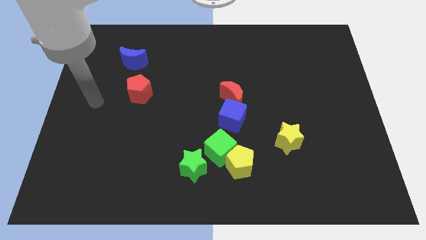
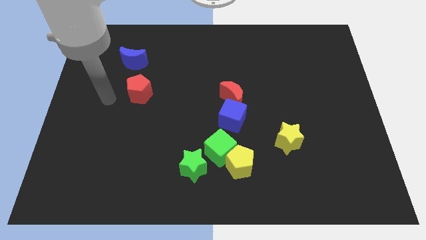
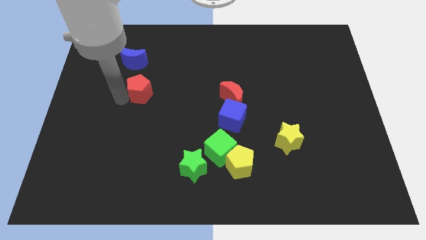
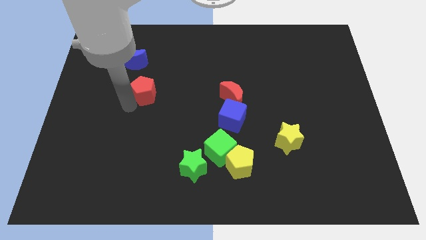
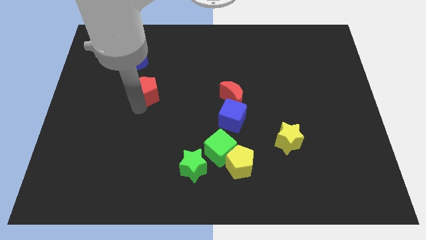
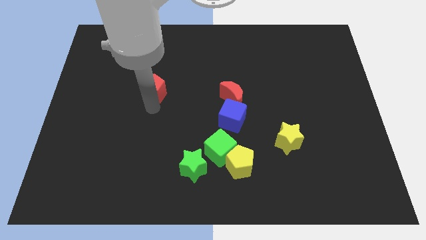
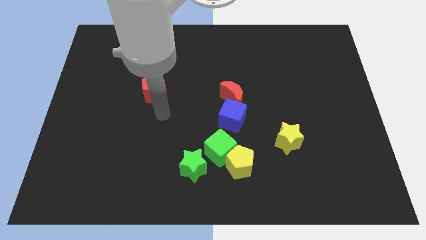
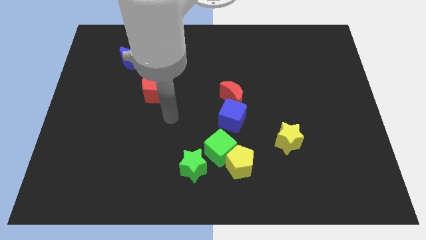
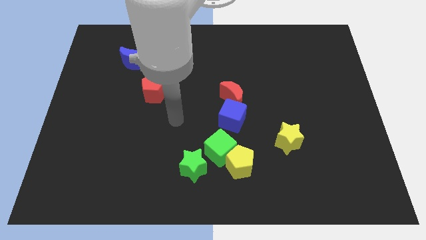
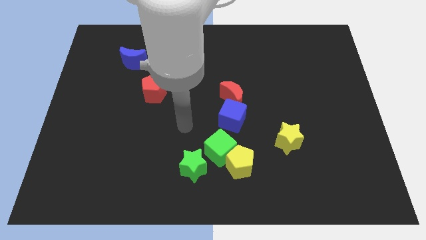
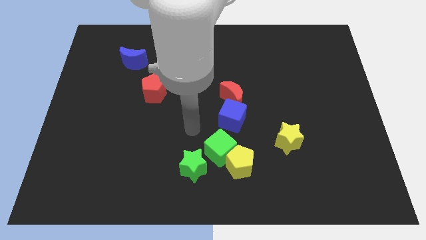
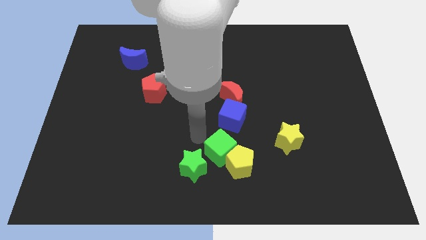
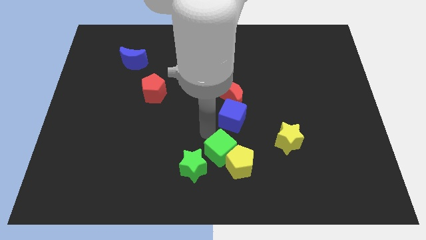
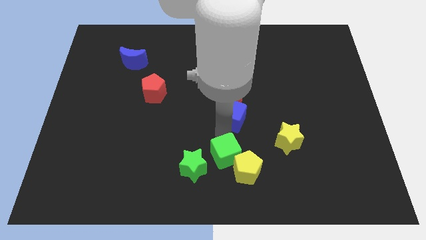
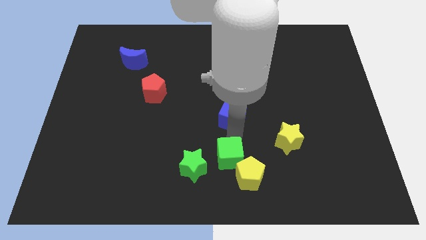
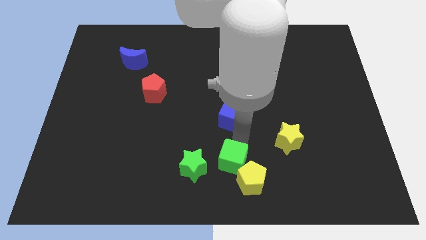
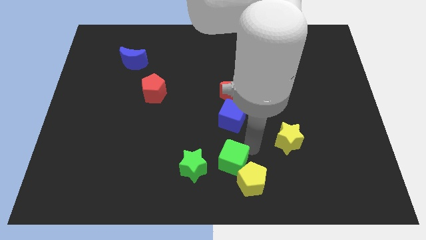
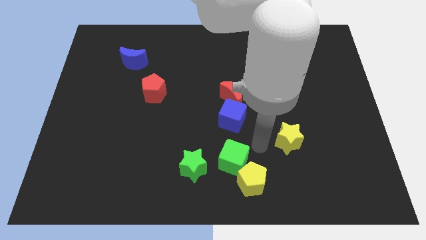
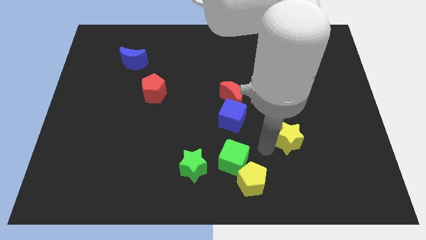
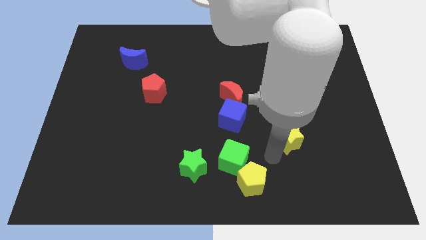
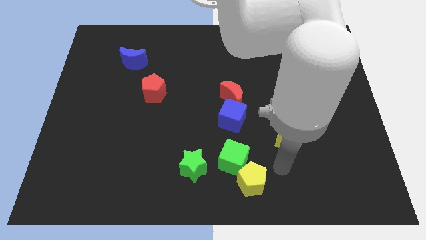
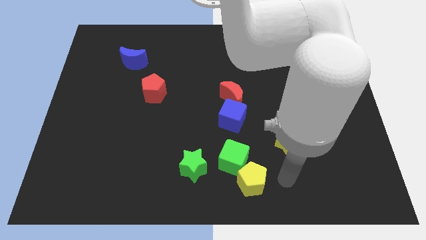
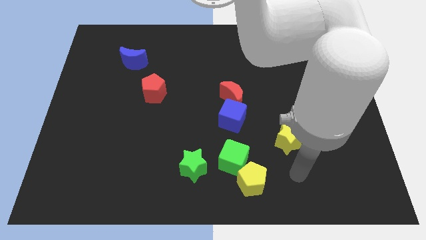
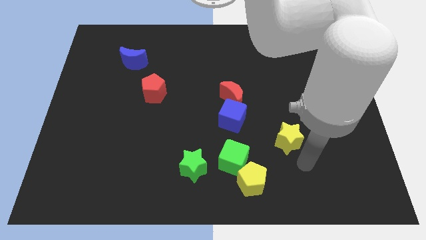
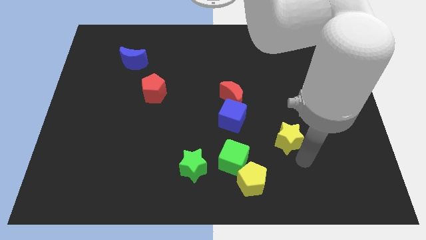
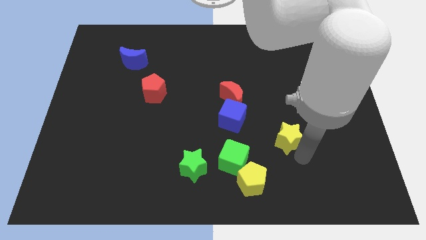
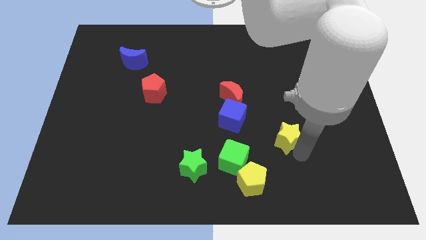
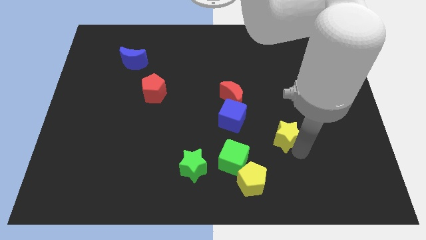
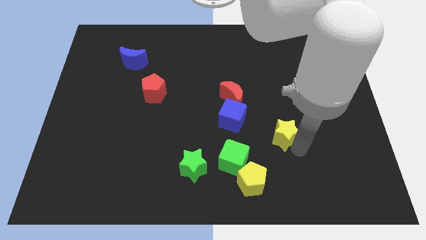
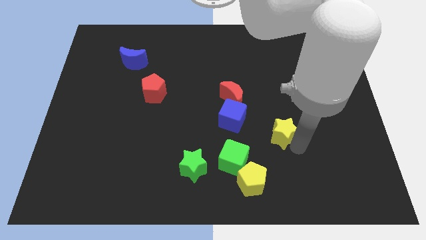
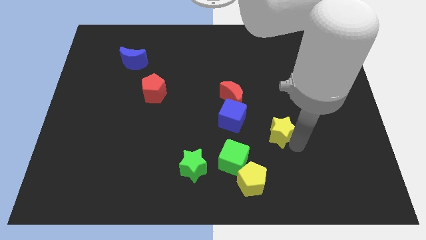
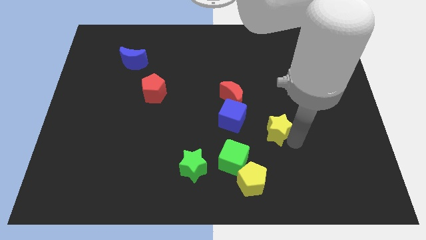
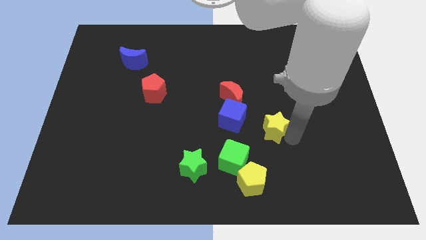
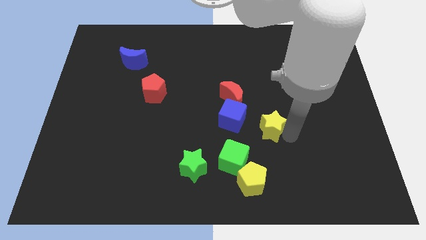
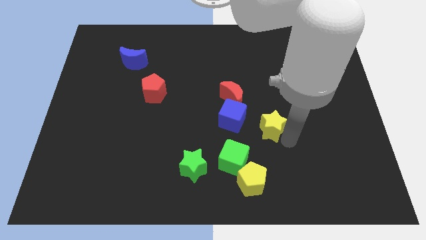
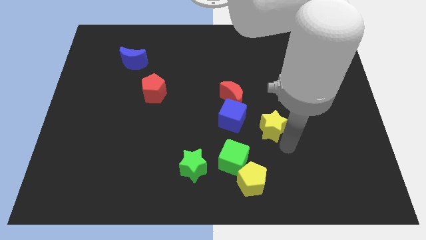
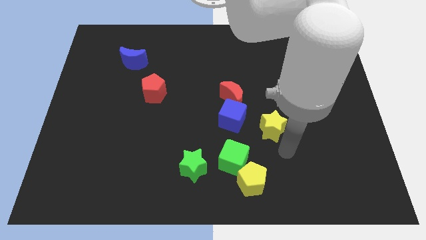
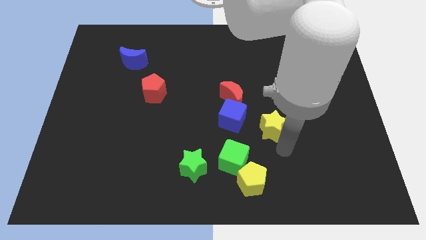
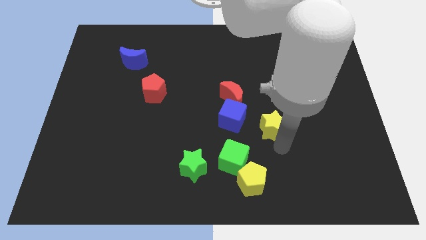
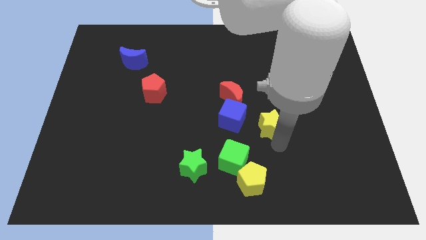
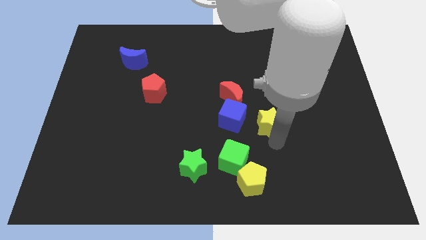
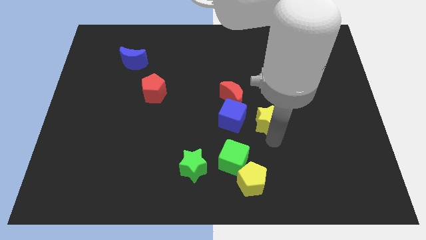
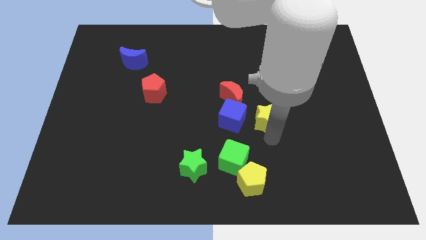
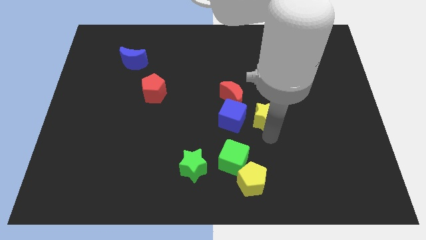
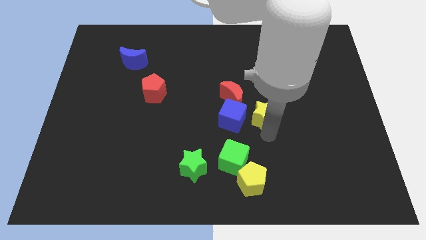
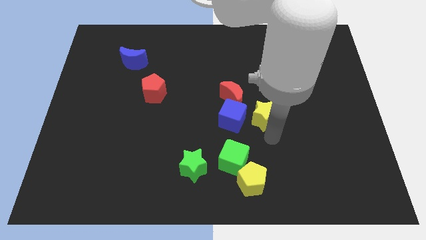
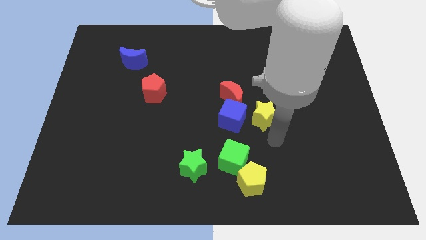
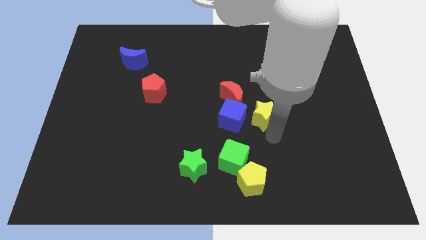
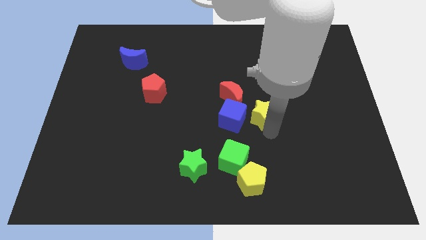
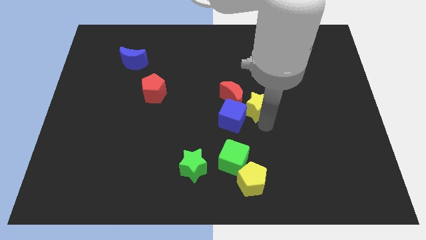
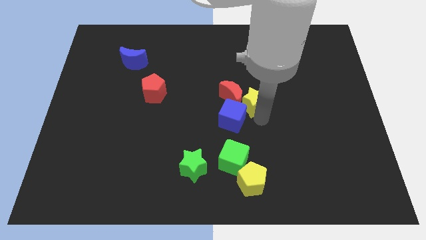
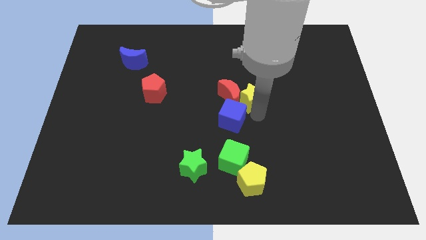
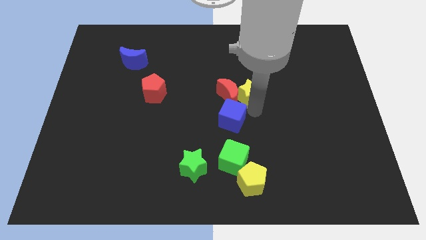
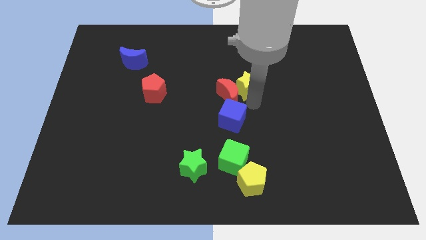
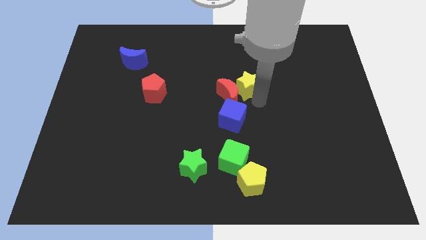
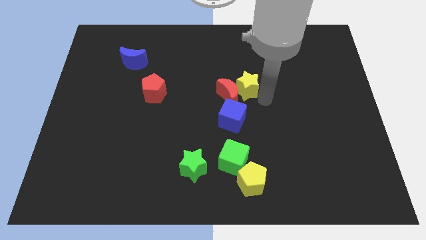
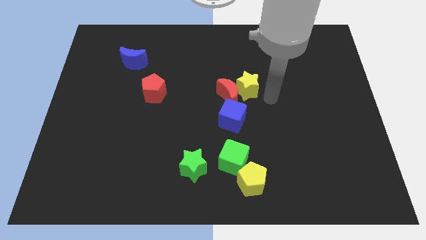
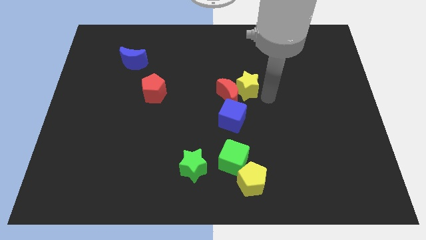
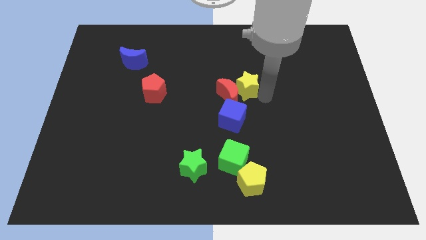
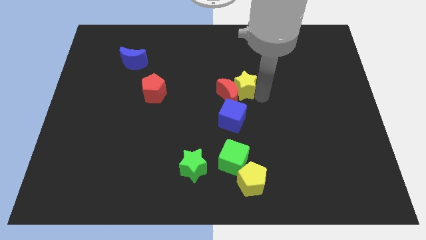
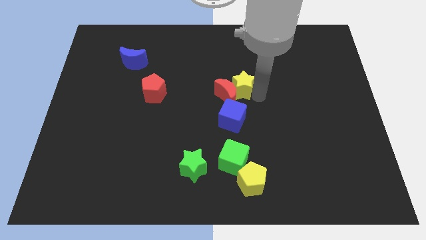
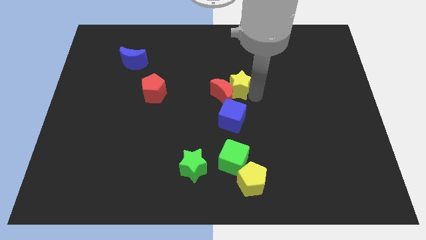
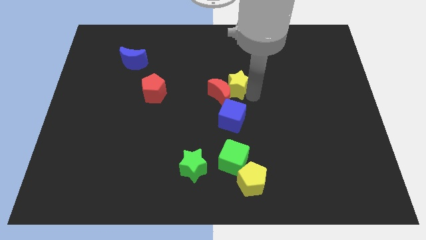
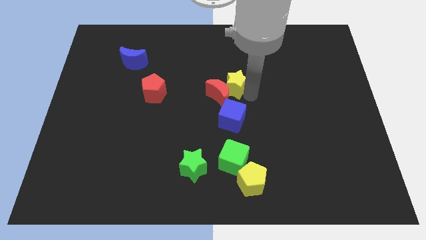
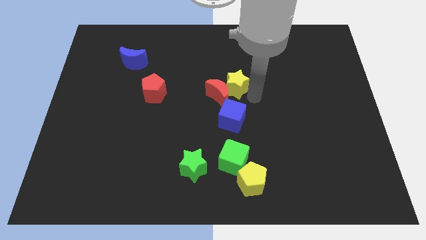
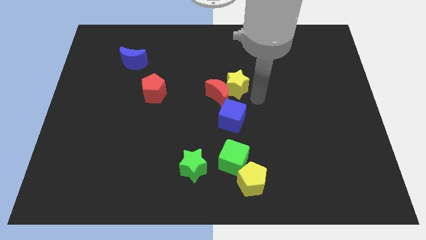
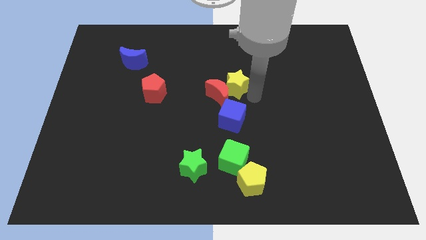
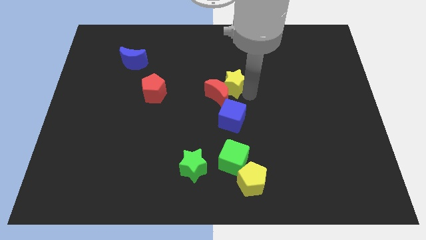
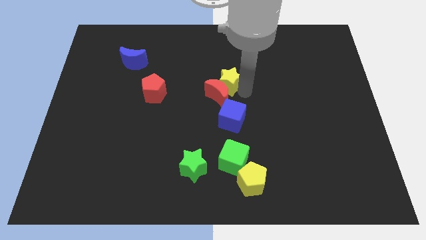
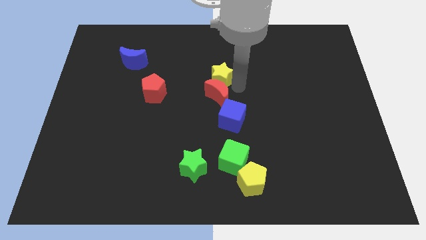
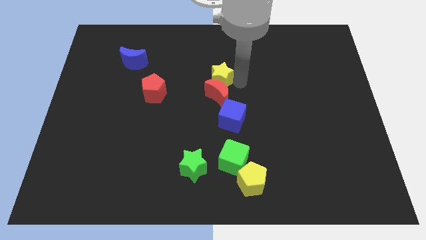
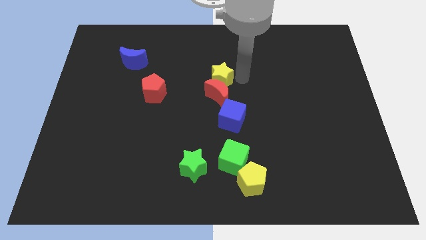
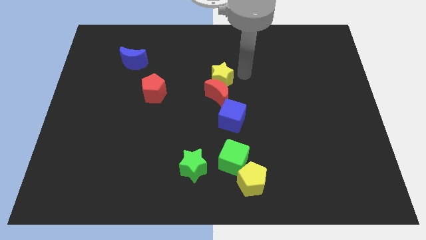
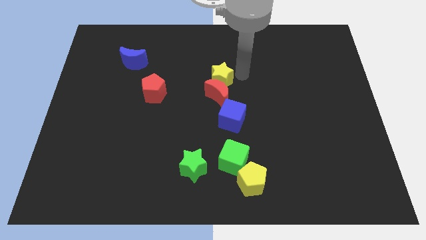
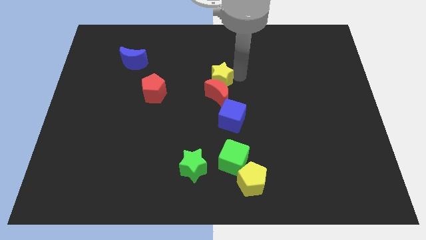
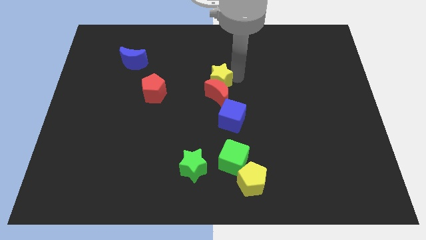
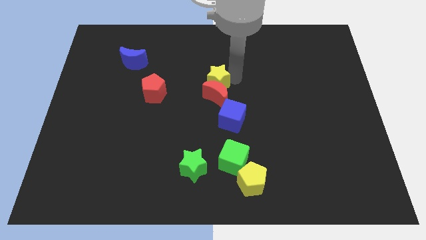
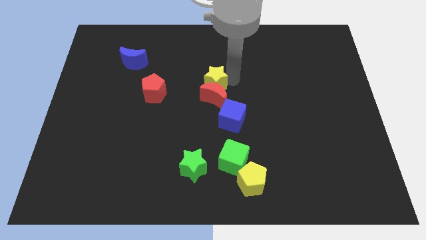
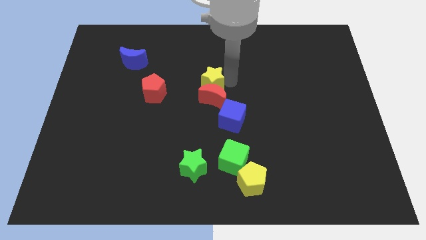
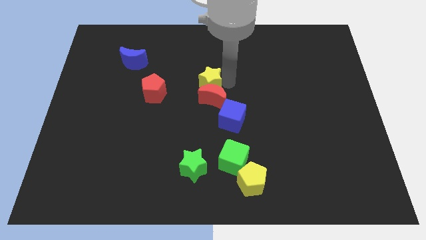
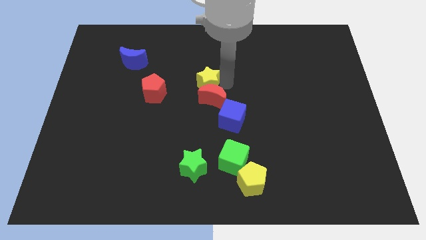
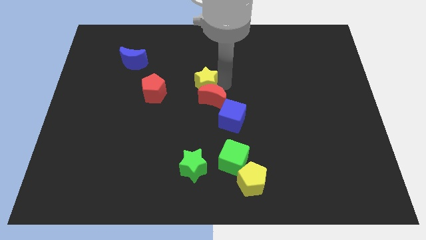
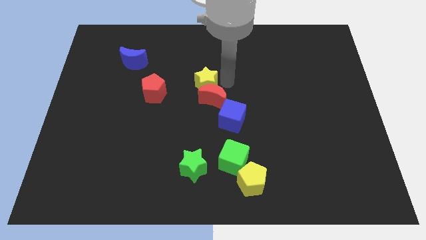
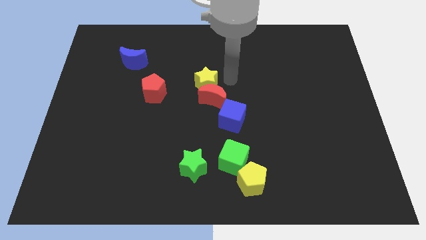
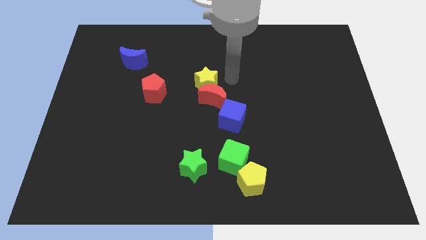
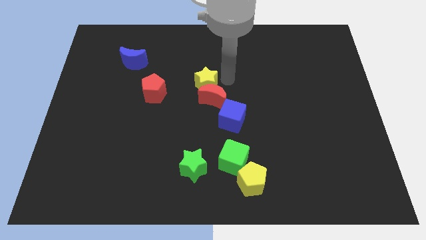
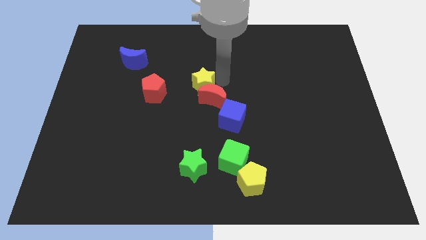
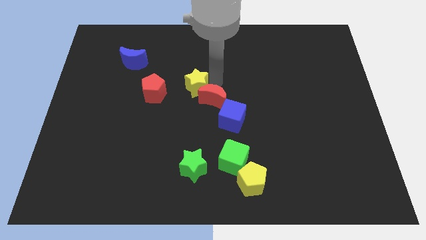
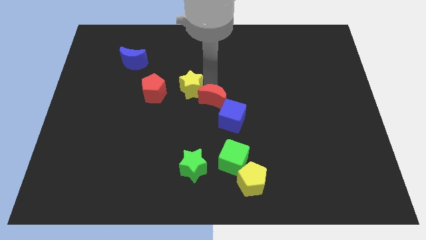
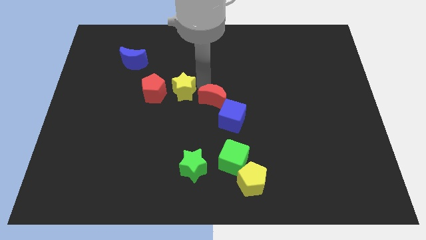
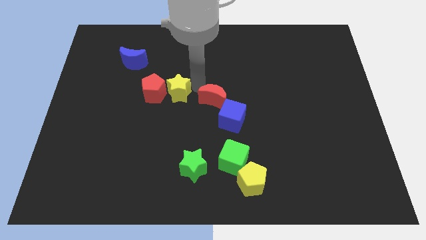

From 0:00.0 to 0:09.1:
push the yellow star to the red pentagon
